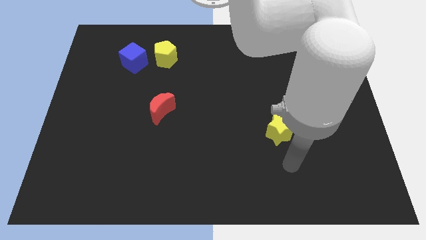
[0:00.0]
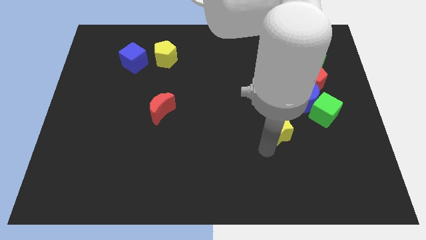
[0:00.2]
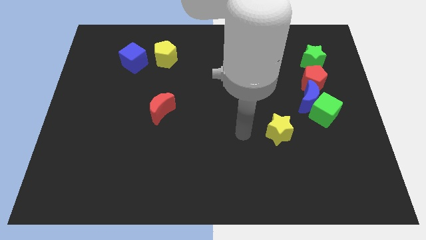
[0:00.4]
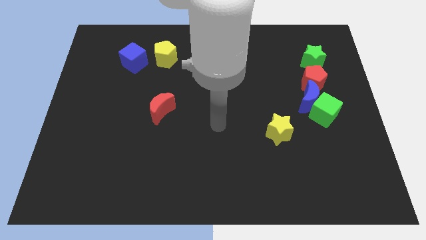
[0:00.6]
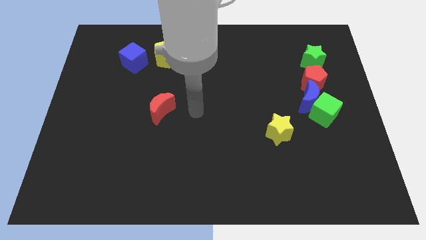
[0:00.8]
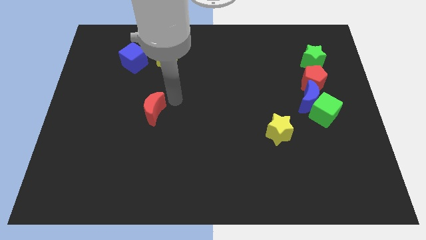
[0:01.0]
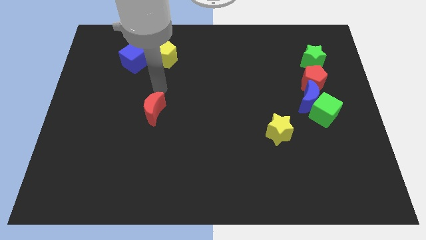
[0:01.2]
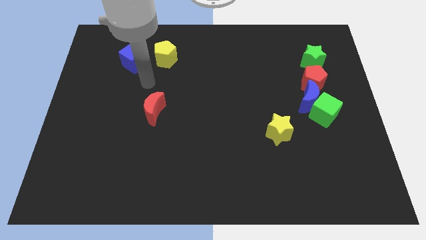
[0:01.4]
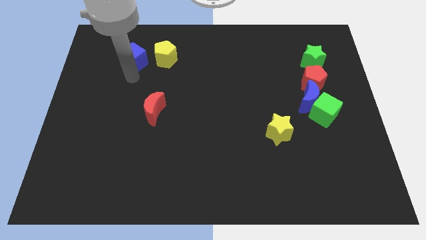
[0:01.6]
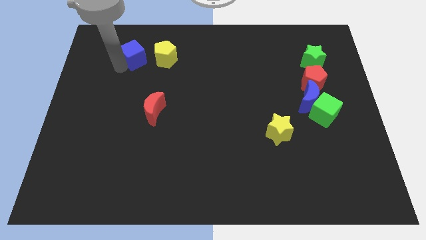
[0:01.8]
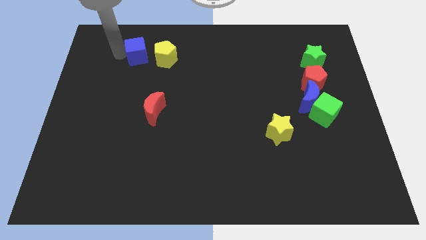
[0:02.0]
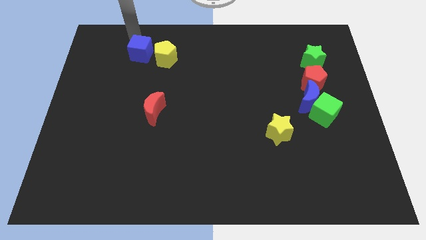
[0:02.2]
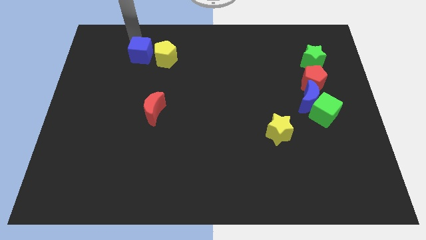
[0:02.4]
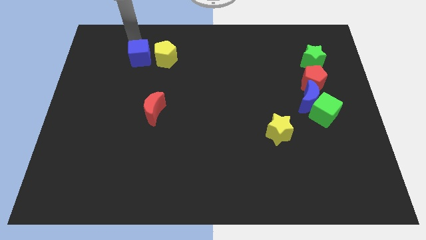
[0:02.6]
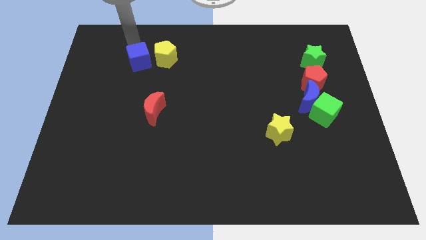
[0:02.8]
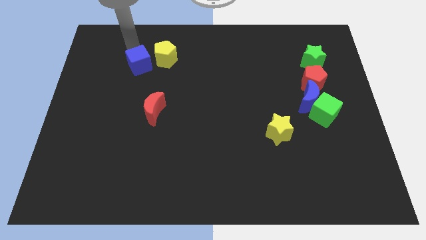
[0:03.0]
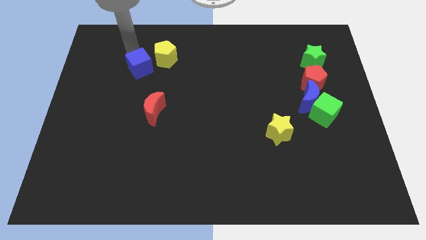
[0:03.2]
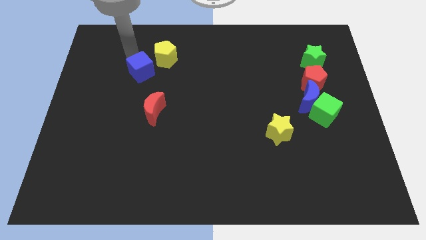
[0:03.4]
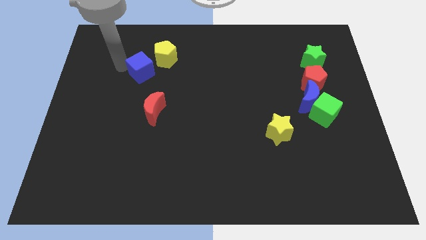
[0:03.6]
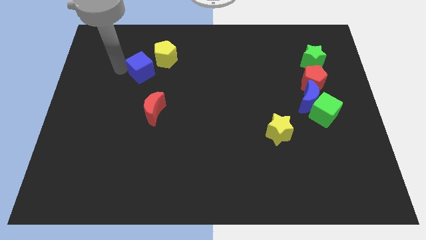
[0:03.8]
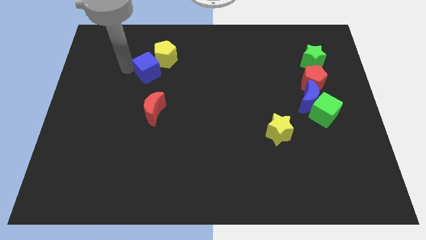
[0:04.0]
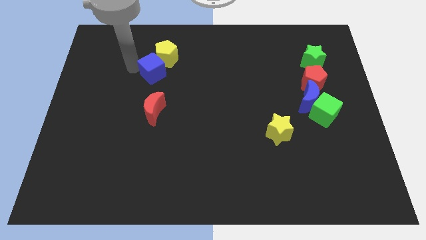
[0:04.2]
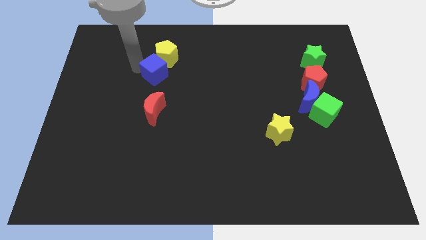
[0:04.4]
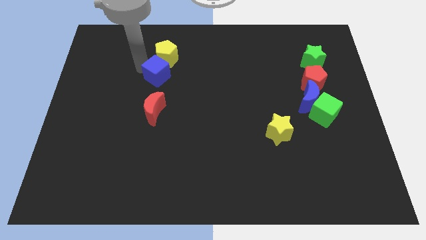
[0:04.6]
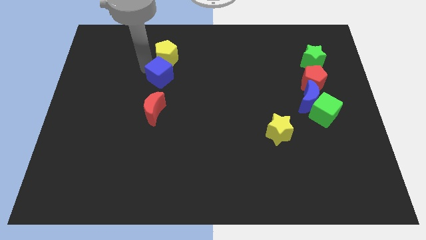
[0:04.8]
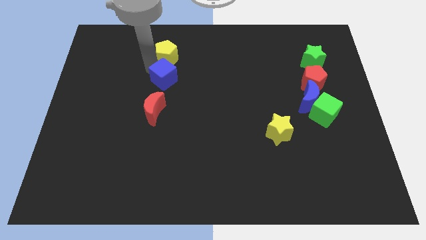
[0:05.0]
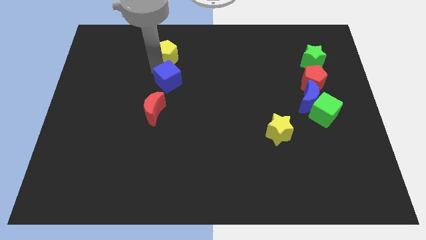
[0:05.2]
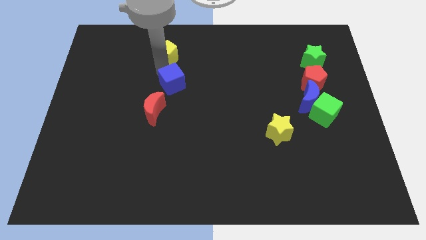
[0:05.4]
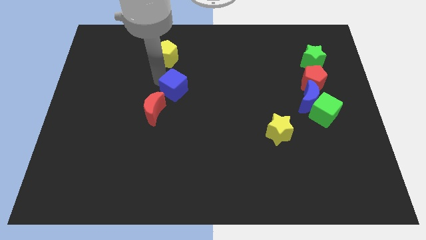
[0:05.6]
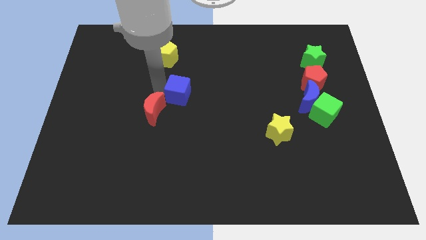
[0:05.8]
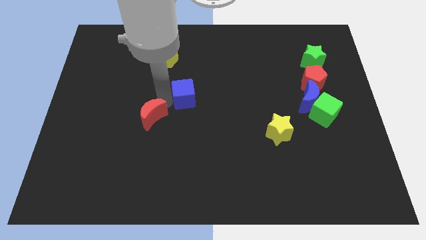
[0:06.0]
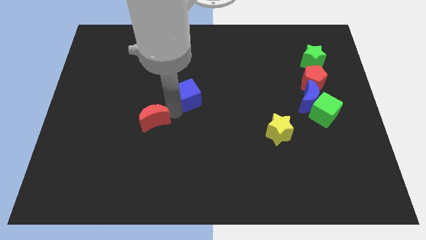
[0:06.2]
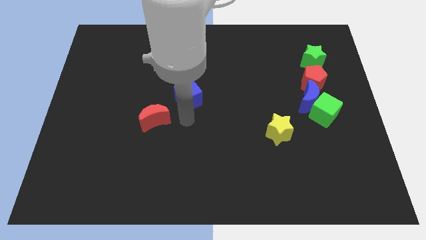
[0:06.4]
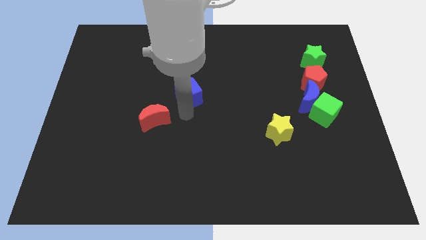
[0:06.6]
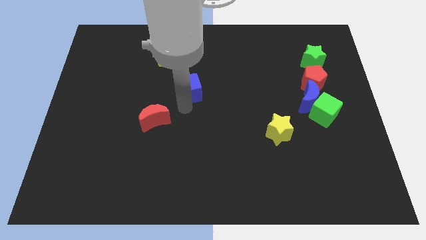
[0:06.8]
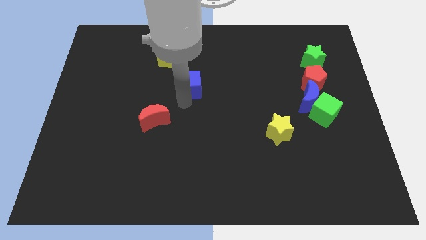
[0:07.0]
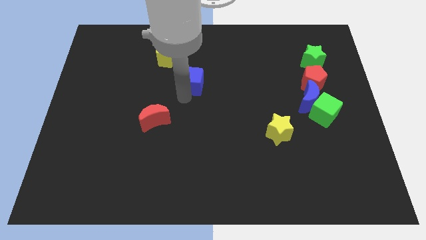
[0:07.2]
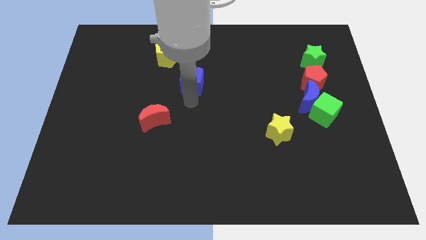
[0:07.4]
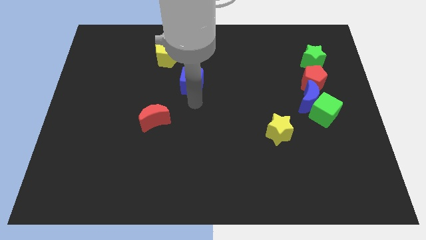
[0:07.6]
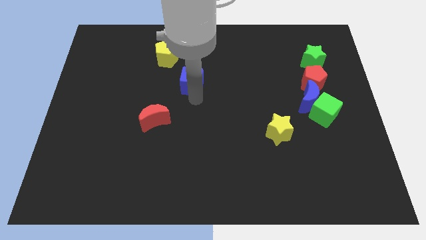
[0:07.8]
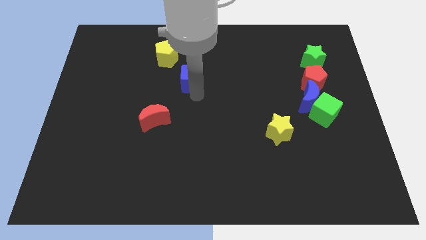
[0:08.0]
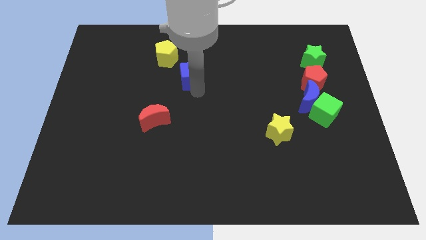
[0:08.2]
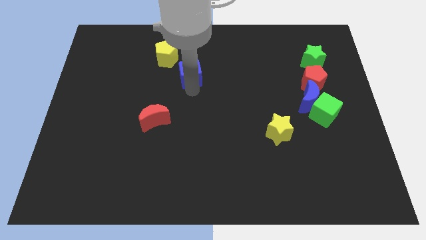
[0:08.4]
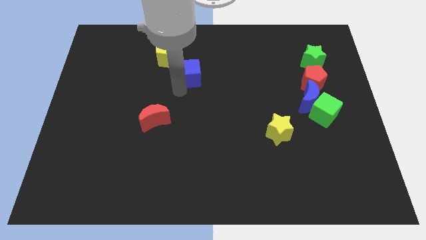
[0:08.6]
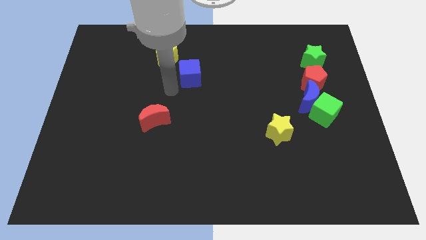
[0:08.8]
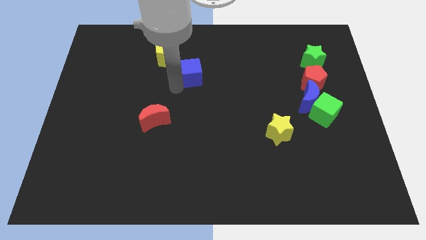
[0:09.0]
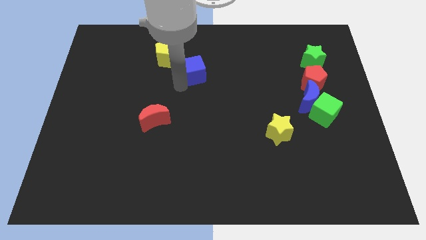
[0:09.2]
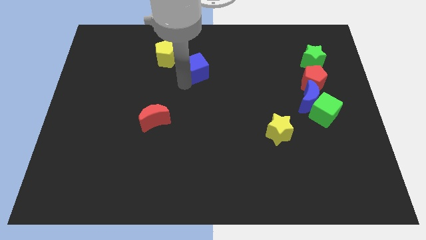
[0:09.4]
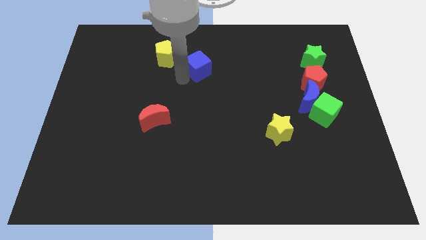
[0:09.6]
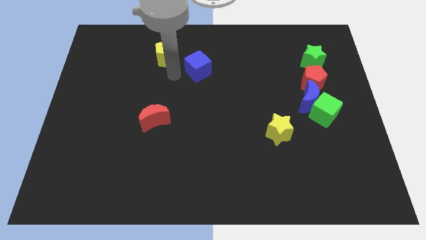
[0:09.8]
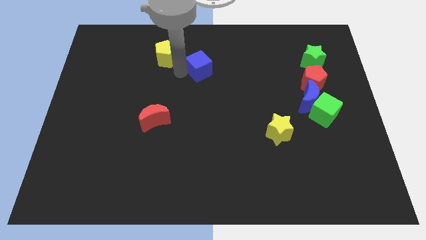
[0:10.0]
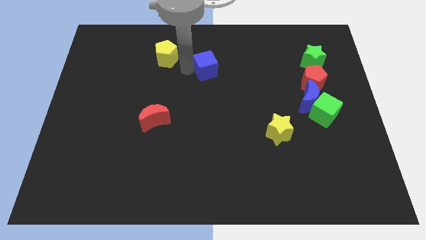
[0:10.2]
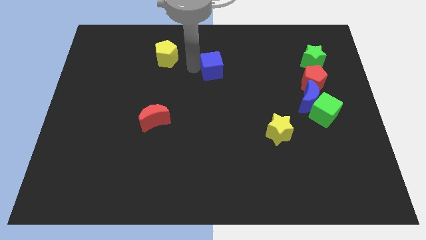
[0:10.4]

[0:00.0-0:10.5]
slide the blue cube to the right

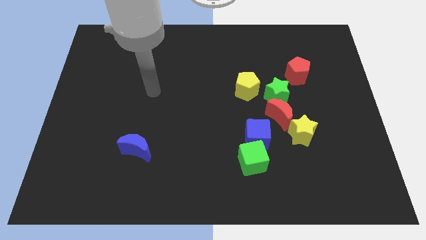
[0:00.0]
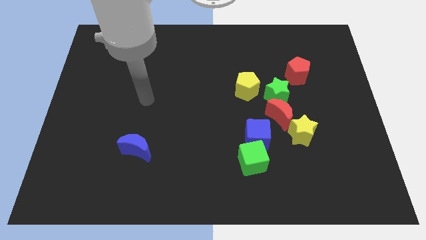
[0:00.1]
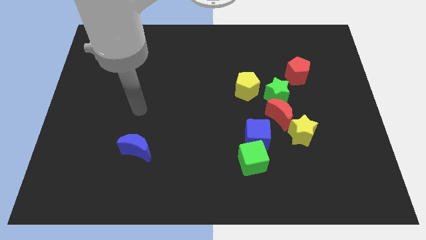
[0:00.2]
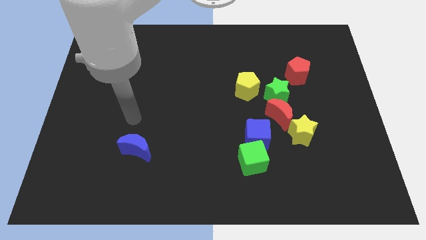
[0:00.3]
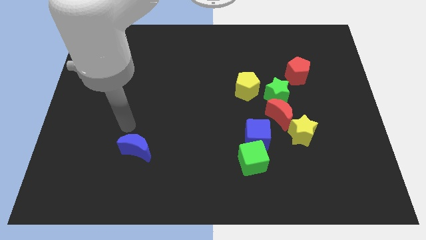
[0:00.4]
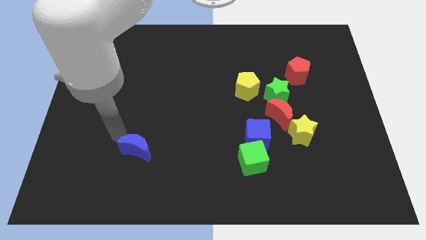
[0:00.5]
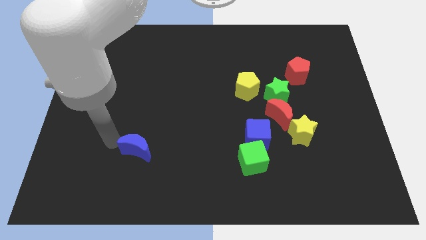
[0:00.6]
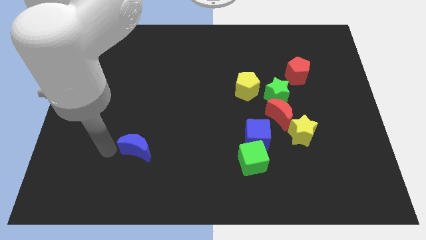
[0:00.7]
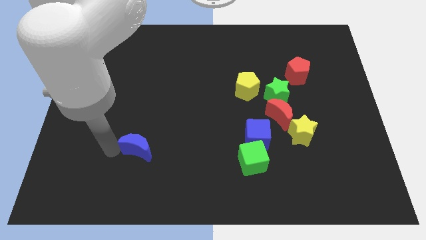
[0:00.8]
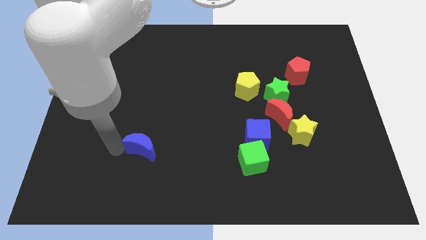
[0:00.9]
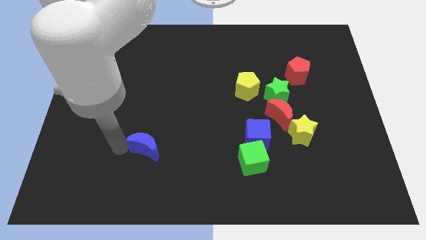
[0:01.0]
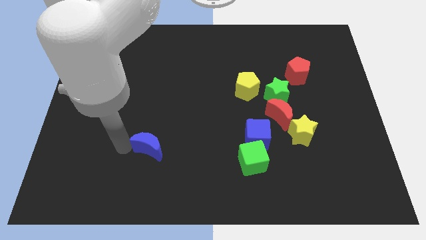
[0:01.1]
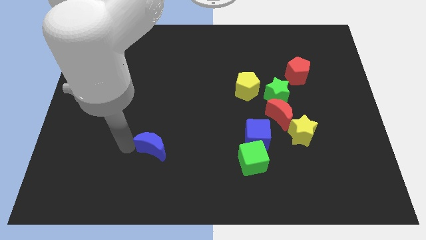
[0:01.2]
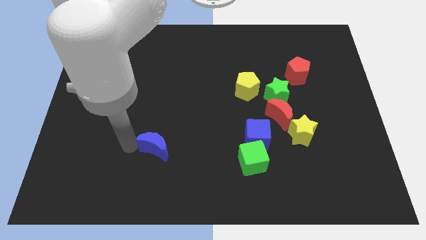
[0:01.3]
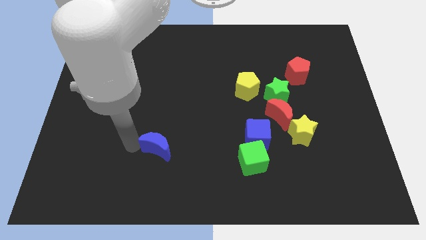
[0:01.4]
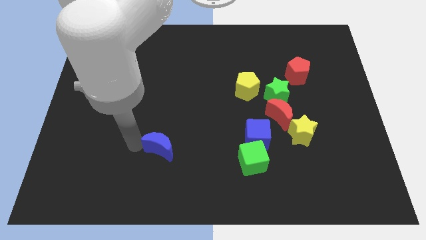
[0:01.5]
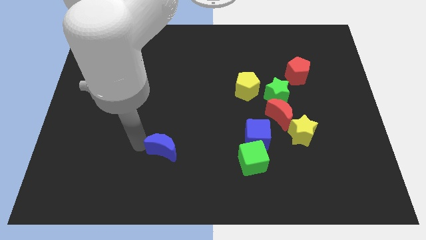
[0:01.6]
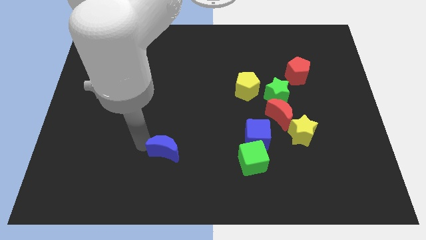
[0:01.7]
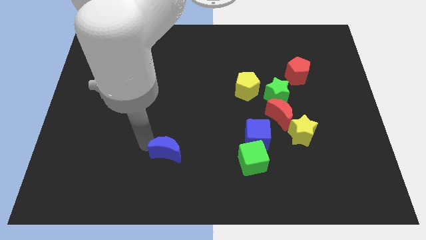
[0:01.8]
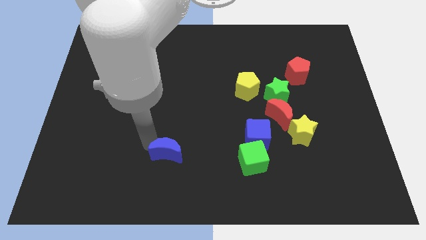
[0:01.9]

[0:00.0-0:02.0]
slightly push the blue moon right

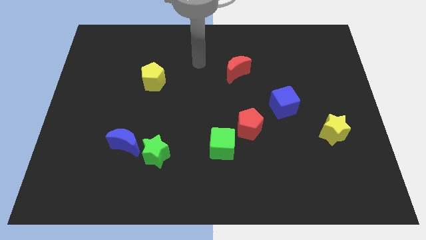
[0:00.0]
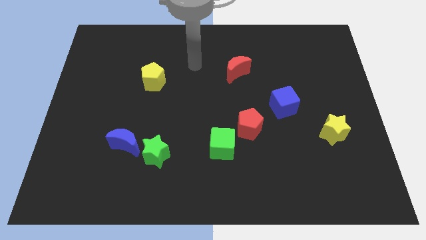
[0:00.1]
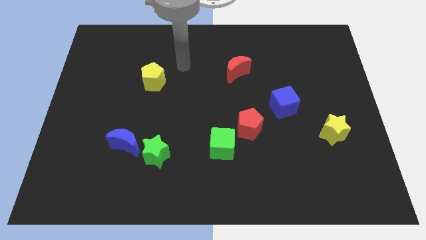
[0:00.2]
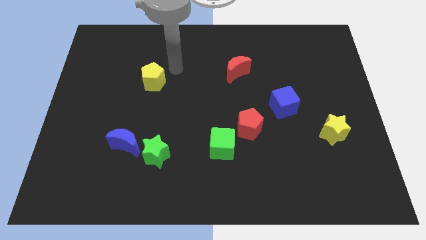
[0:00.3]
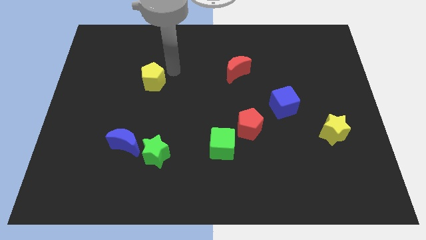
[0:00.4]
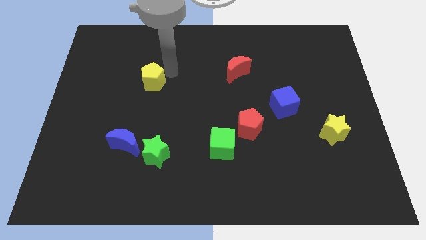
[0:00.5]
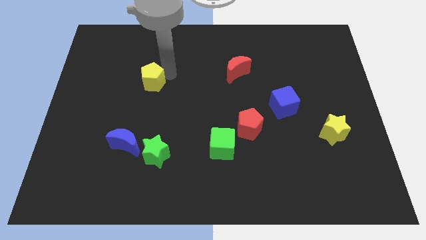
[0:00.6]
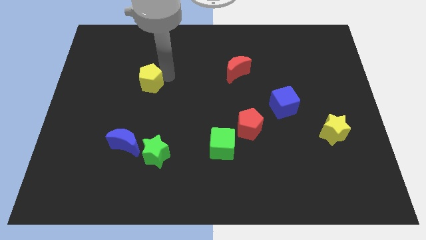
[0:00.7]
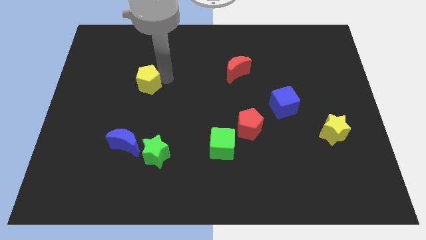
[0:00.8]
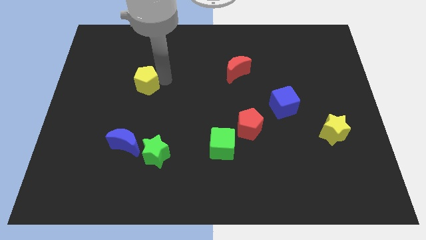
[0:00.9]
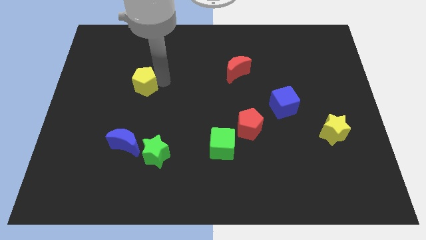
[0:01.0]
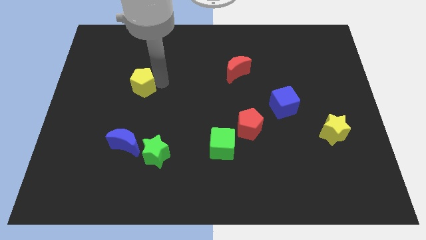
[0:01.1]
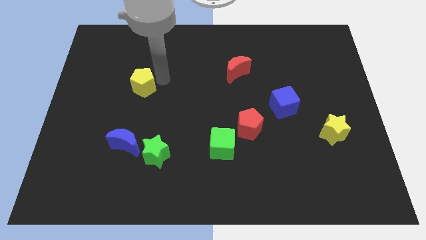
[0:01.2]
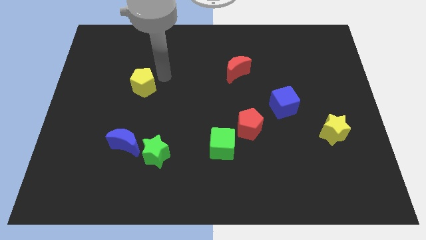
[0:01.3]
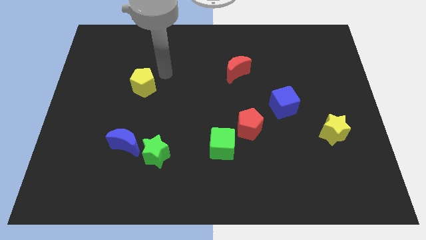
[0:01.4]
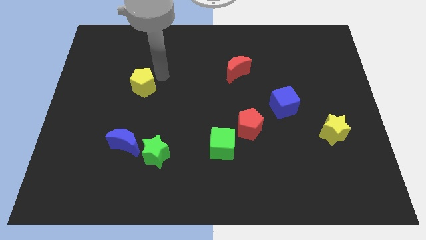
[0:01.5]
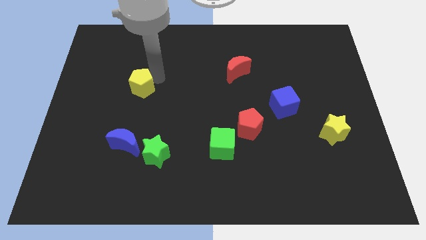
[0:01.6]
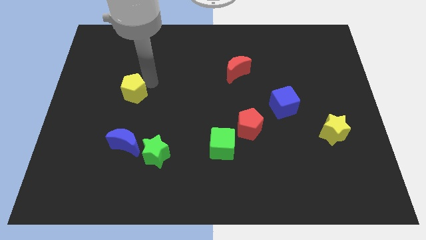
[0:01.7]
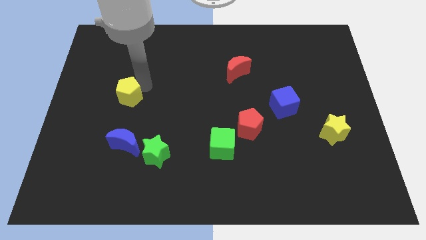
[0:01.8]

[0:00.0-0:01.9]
slide the yellow pentagon diagonally downwards and left somewhat
